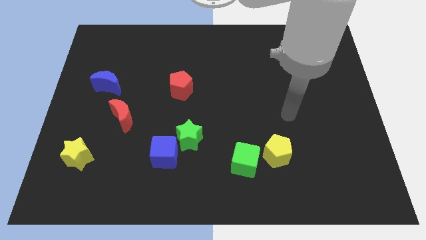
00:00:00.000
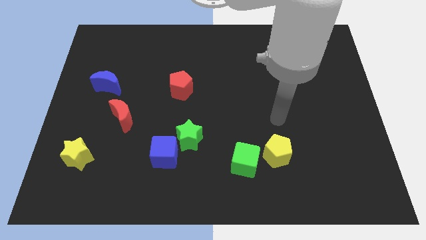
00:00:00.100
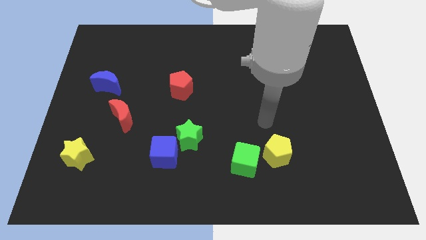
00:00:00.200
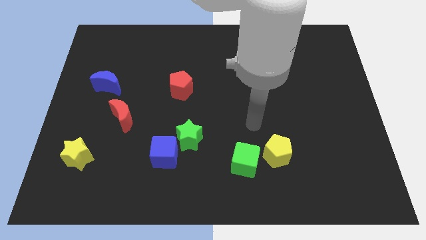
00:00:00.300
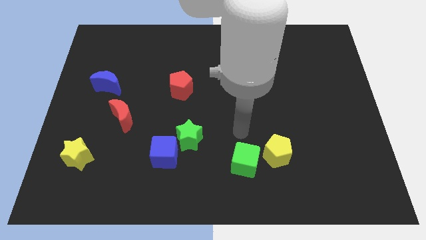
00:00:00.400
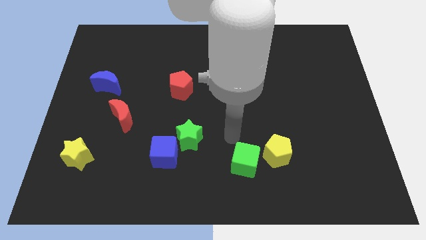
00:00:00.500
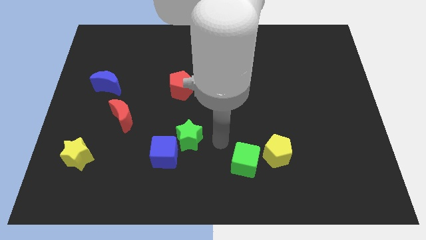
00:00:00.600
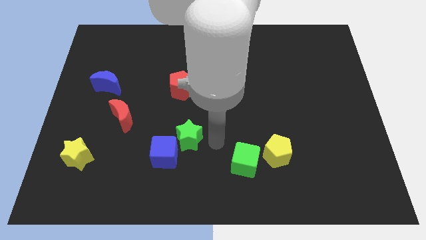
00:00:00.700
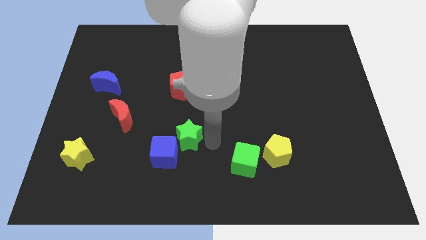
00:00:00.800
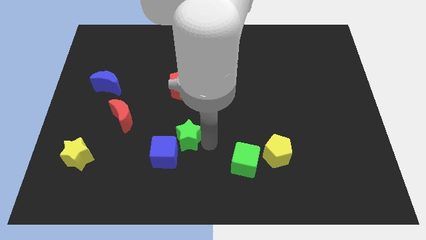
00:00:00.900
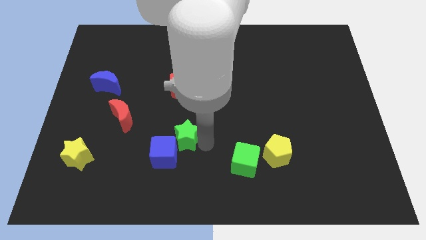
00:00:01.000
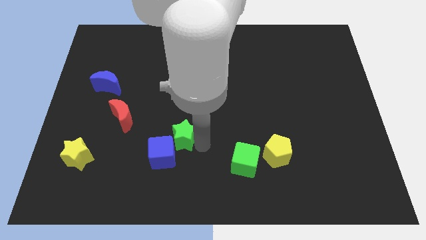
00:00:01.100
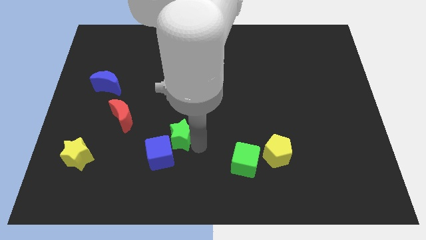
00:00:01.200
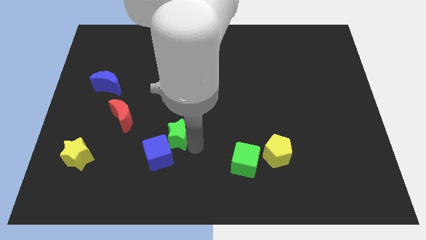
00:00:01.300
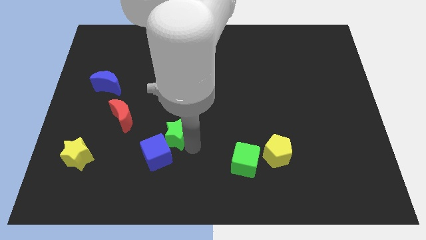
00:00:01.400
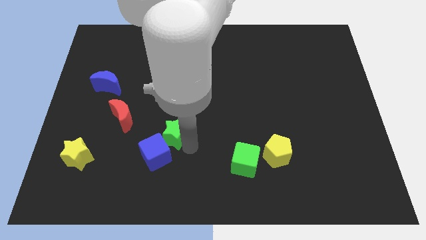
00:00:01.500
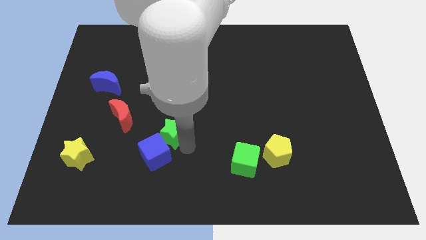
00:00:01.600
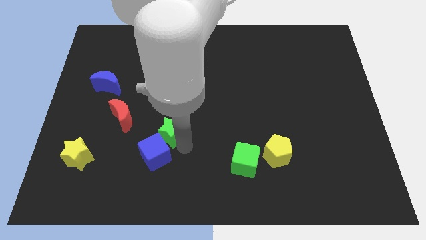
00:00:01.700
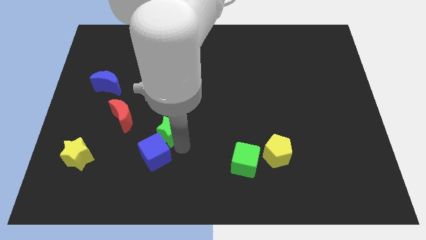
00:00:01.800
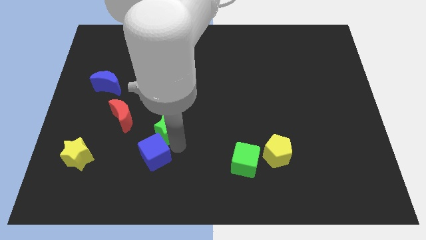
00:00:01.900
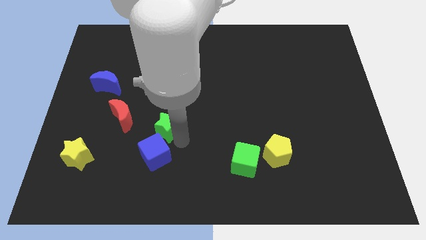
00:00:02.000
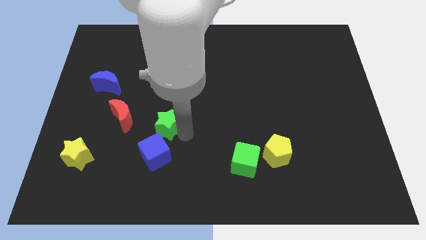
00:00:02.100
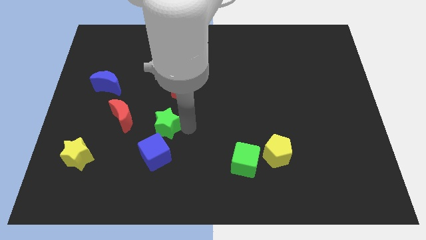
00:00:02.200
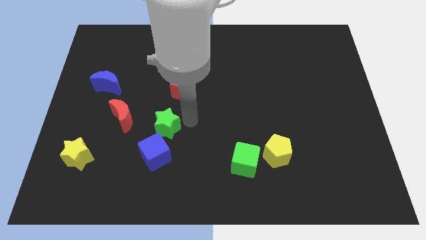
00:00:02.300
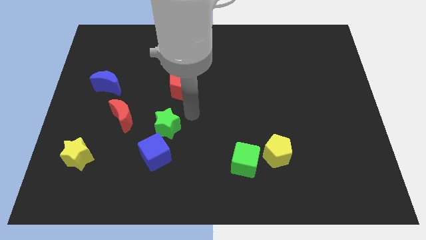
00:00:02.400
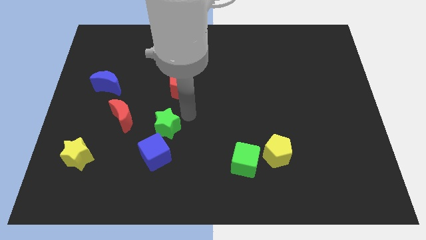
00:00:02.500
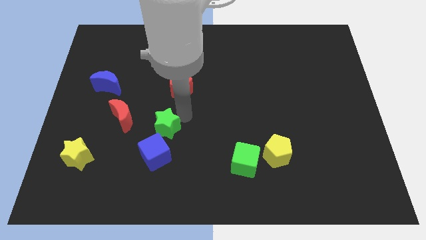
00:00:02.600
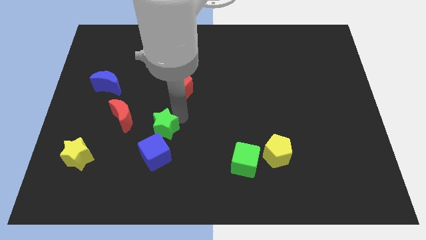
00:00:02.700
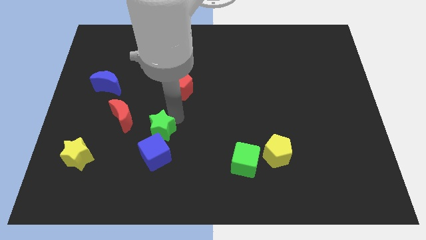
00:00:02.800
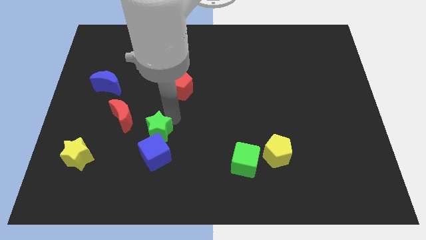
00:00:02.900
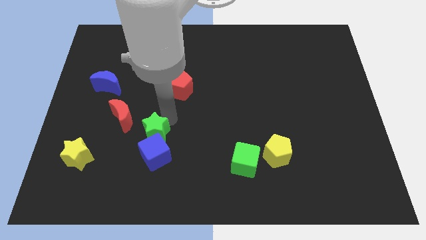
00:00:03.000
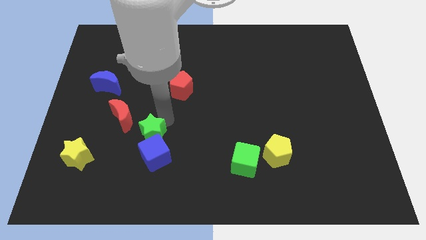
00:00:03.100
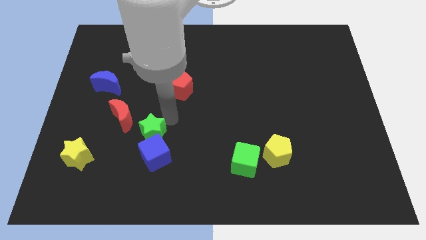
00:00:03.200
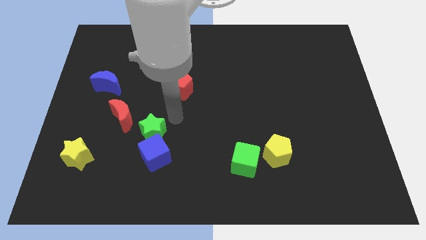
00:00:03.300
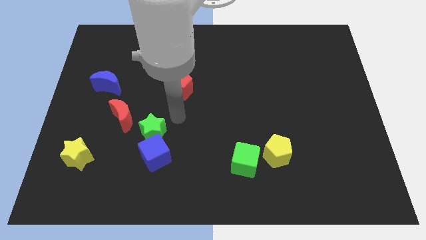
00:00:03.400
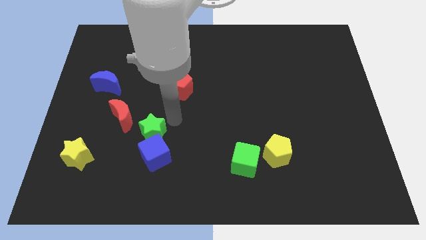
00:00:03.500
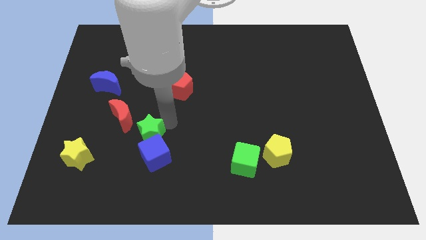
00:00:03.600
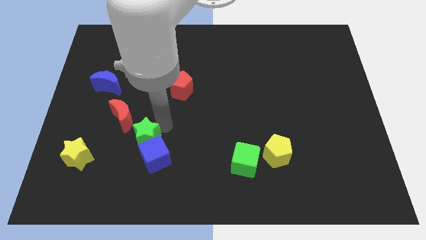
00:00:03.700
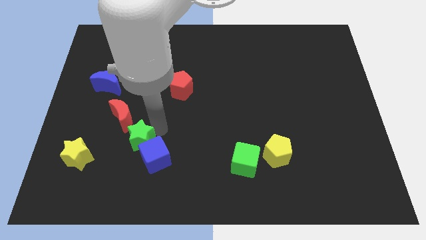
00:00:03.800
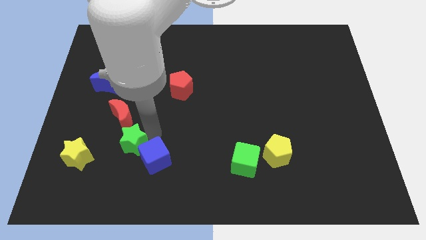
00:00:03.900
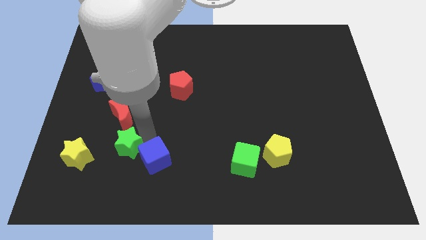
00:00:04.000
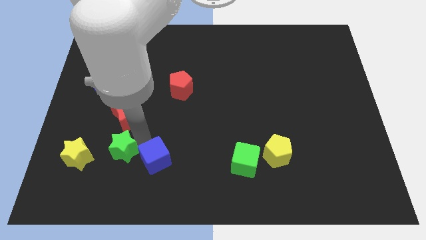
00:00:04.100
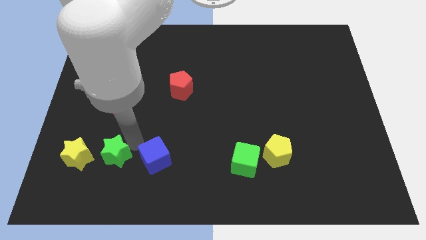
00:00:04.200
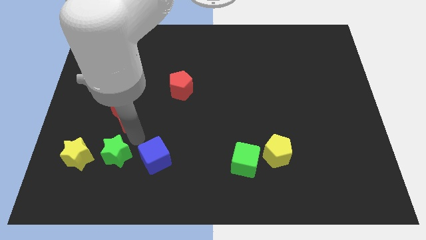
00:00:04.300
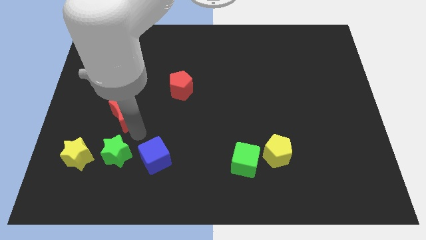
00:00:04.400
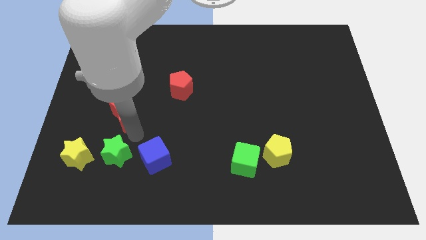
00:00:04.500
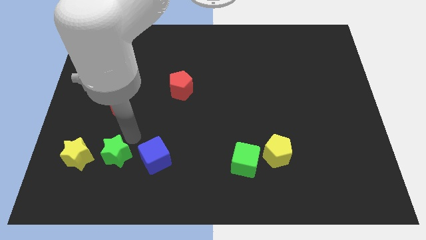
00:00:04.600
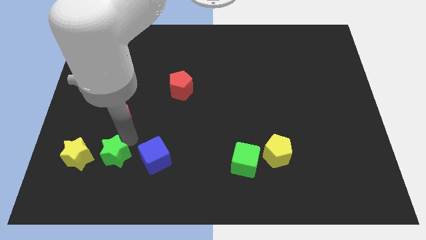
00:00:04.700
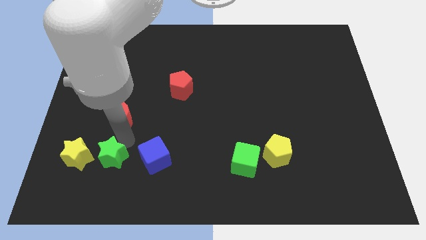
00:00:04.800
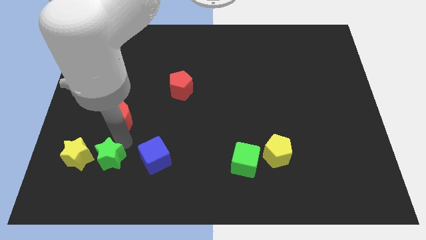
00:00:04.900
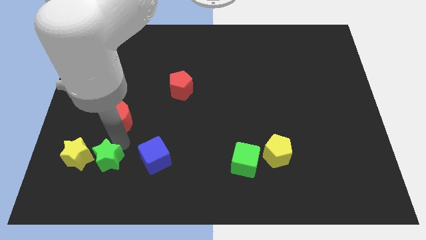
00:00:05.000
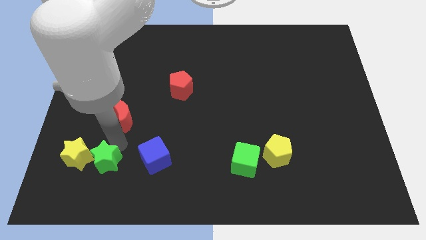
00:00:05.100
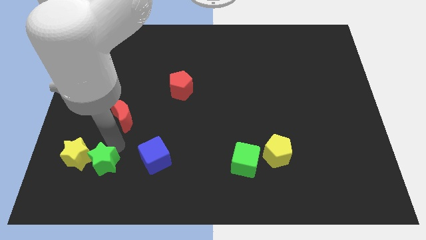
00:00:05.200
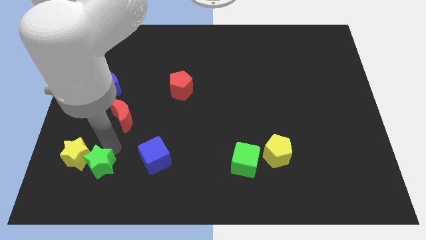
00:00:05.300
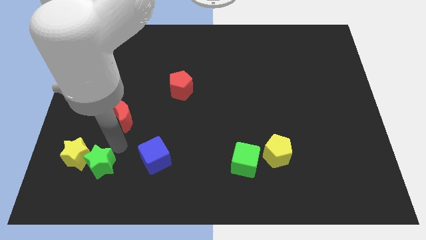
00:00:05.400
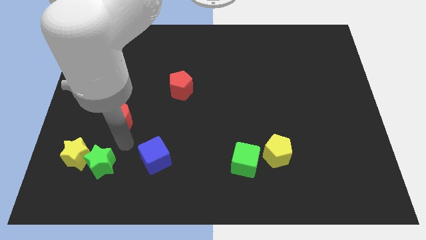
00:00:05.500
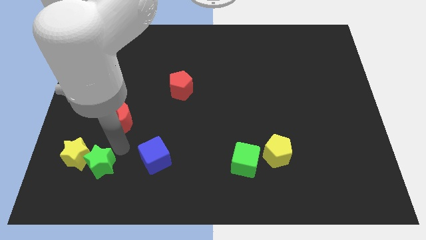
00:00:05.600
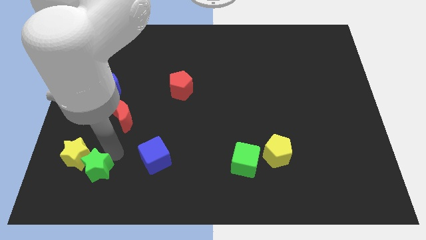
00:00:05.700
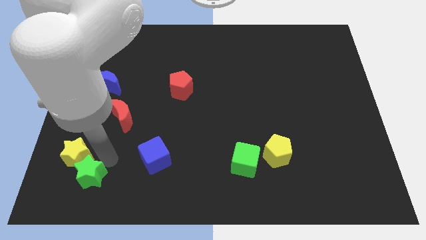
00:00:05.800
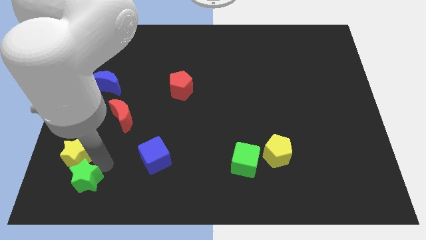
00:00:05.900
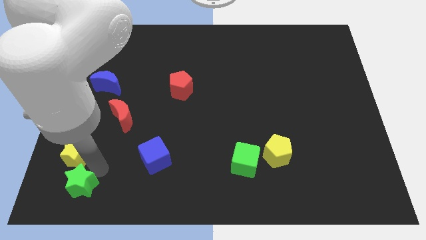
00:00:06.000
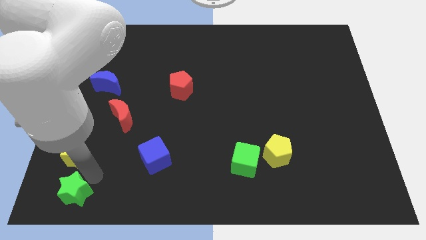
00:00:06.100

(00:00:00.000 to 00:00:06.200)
slide the green star to the lower left corner

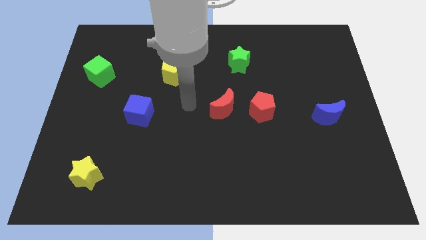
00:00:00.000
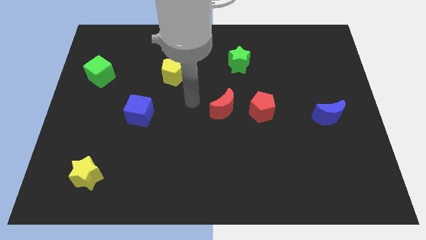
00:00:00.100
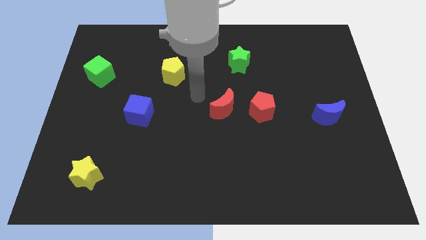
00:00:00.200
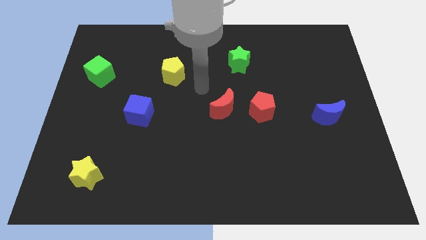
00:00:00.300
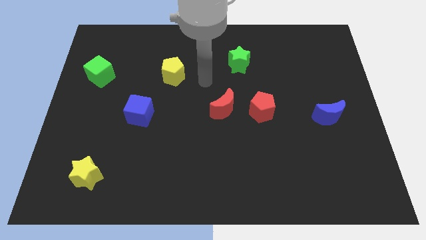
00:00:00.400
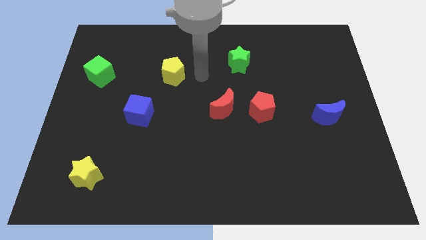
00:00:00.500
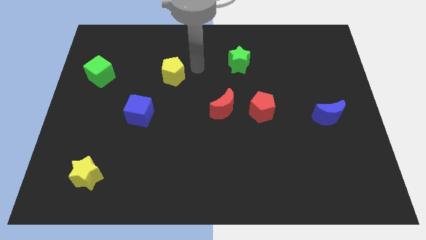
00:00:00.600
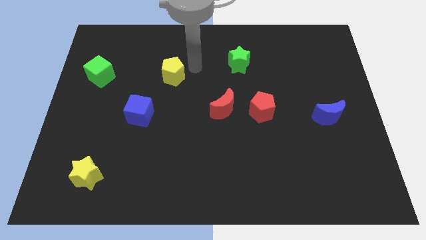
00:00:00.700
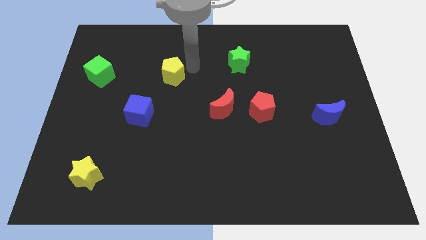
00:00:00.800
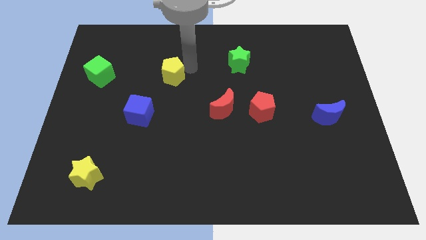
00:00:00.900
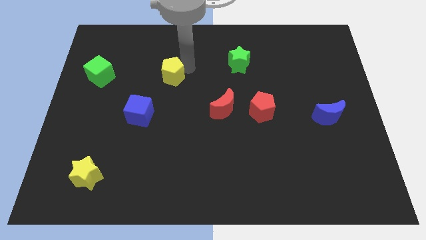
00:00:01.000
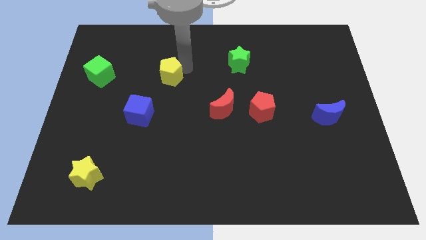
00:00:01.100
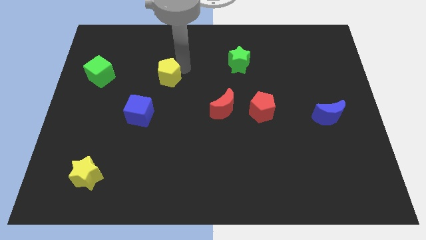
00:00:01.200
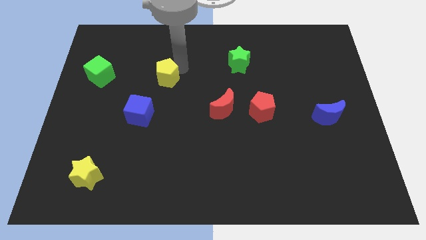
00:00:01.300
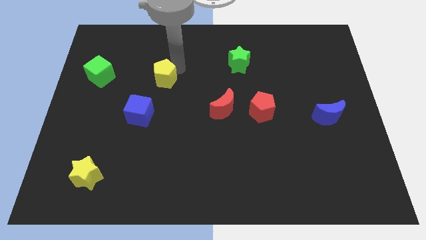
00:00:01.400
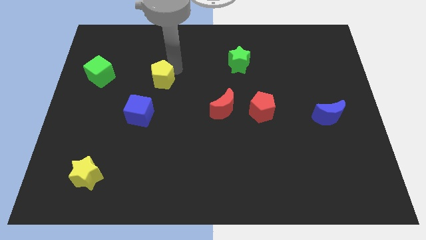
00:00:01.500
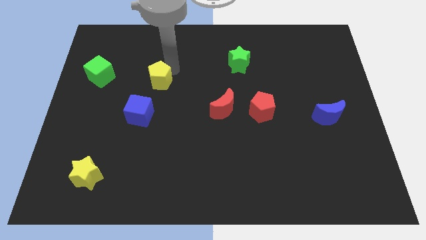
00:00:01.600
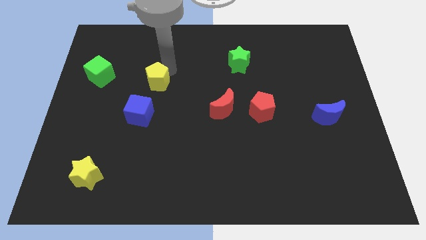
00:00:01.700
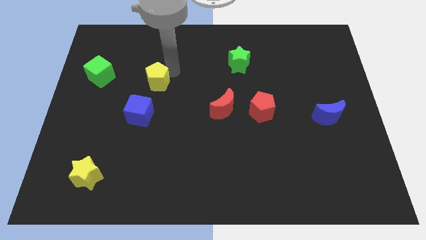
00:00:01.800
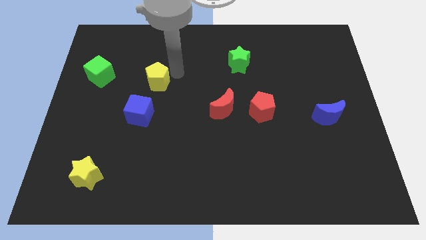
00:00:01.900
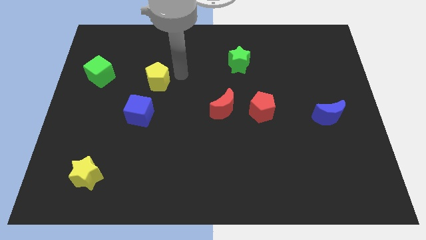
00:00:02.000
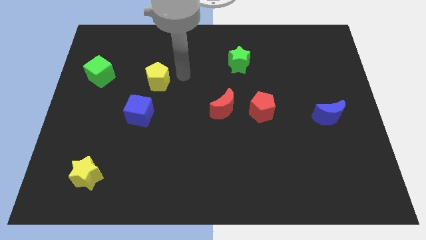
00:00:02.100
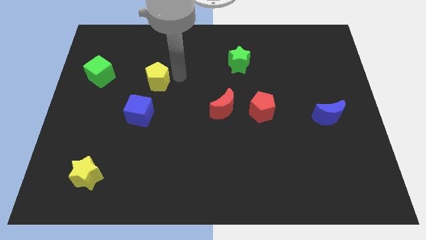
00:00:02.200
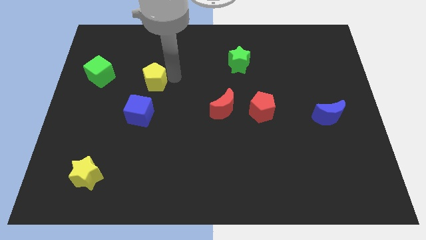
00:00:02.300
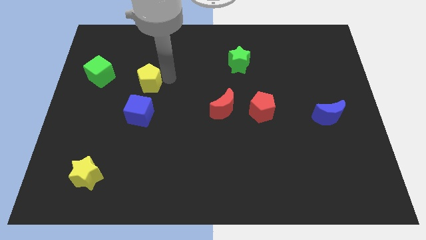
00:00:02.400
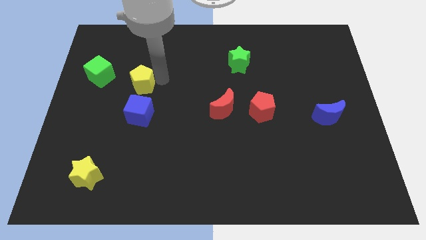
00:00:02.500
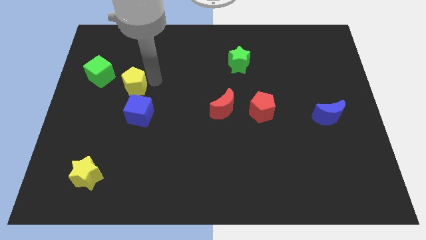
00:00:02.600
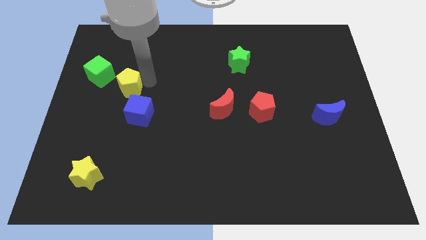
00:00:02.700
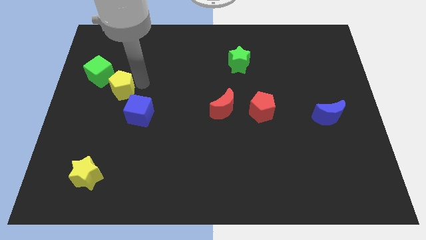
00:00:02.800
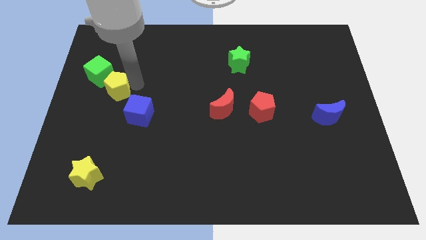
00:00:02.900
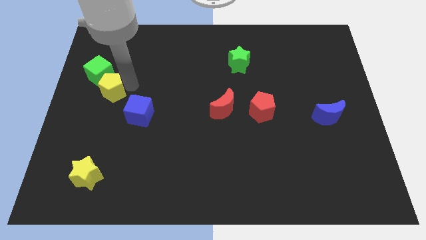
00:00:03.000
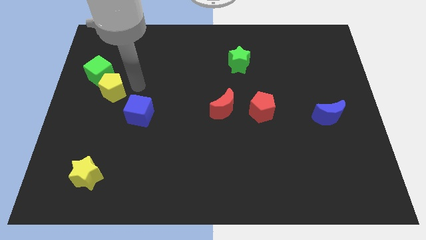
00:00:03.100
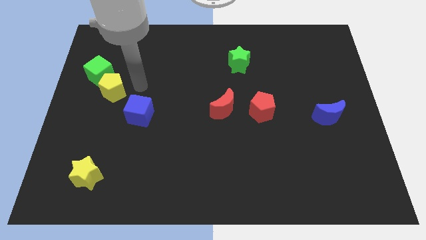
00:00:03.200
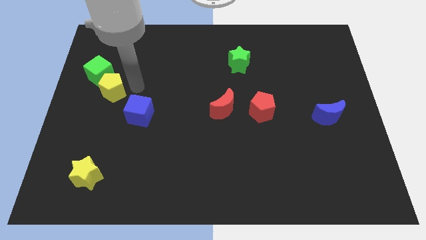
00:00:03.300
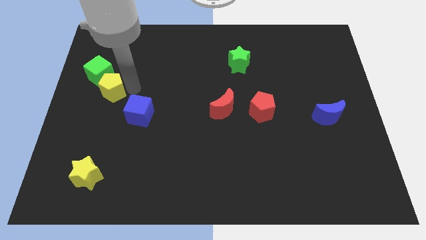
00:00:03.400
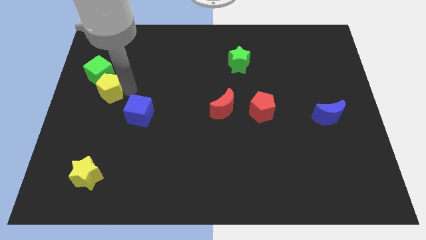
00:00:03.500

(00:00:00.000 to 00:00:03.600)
push the yellow pentagon to the left side of the board
